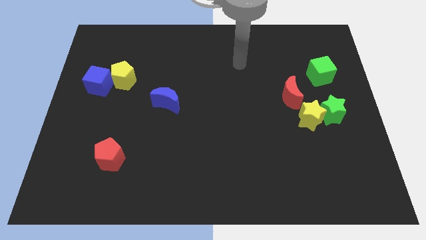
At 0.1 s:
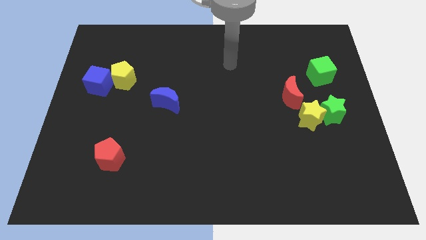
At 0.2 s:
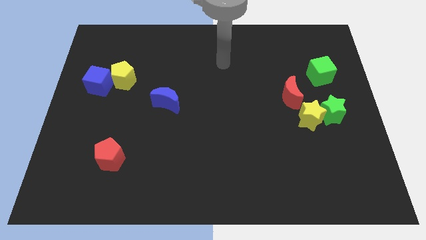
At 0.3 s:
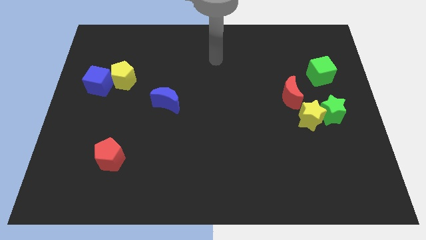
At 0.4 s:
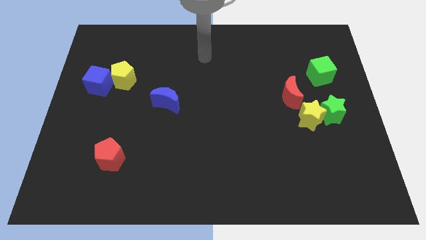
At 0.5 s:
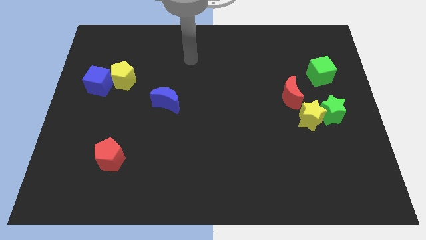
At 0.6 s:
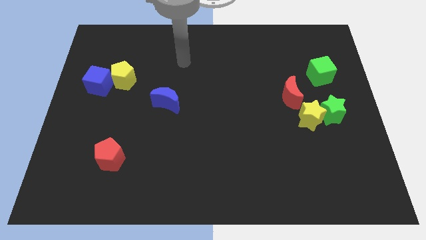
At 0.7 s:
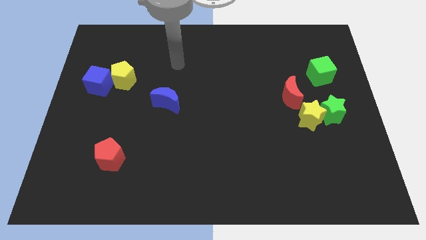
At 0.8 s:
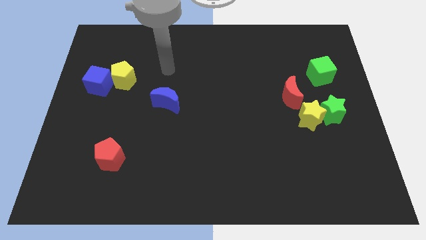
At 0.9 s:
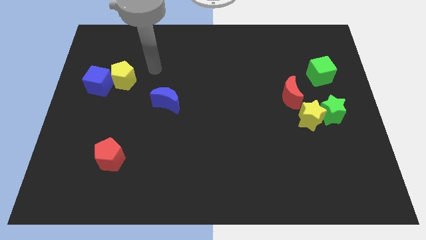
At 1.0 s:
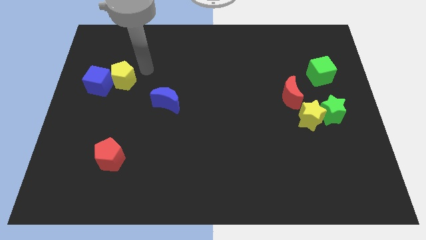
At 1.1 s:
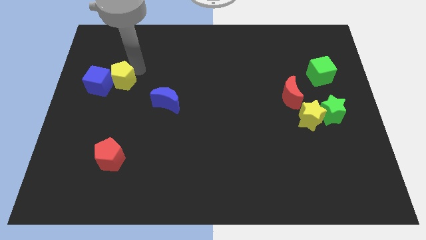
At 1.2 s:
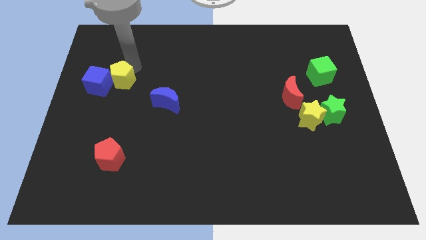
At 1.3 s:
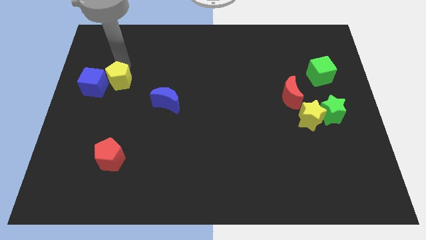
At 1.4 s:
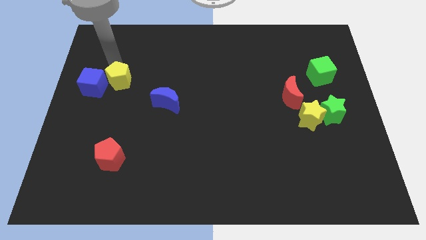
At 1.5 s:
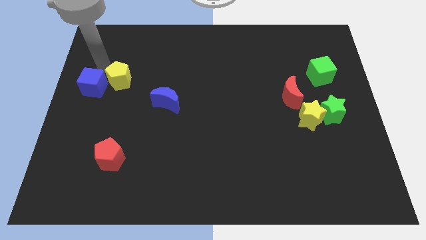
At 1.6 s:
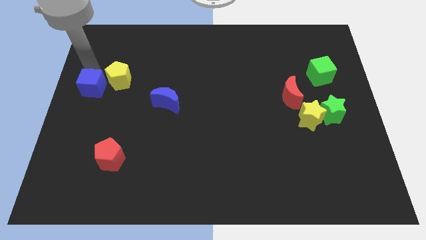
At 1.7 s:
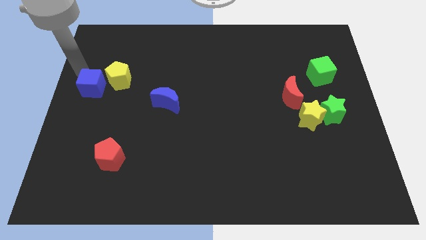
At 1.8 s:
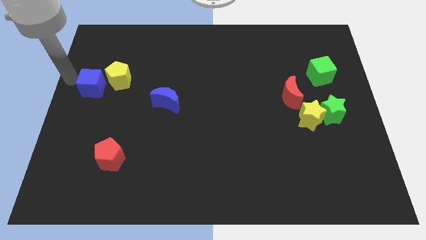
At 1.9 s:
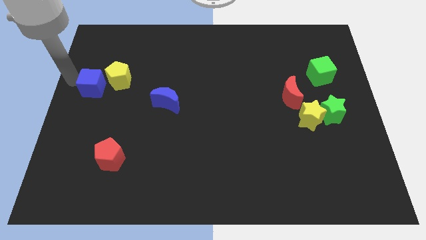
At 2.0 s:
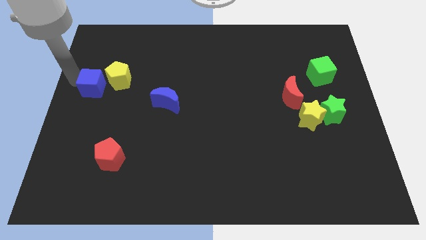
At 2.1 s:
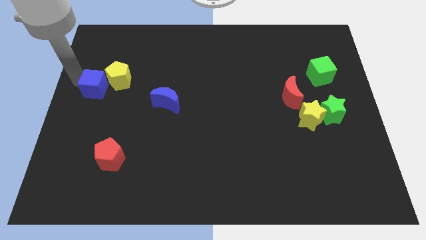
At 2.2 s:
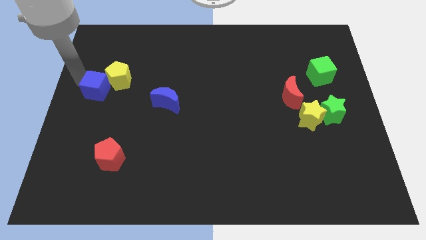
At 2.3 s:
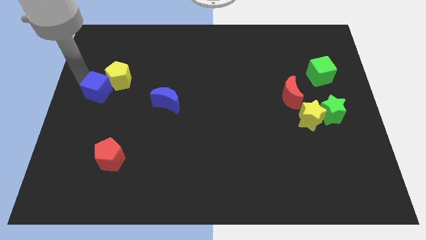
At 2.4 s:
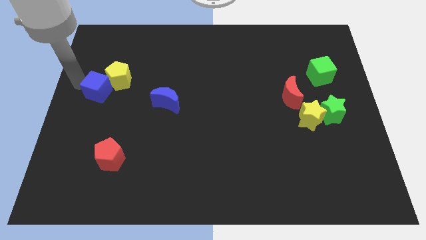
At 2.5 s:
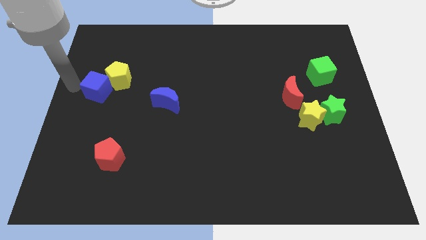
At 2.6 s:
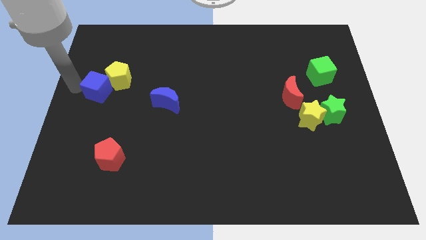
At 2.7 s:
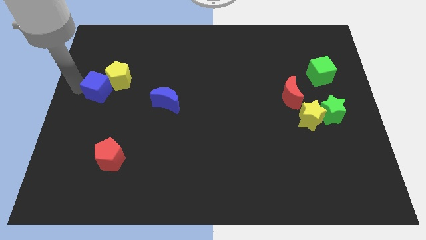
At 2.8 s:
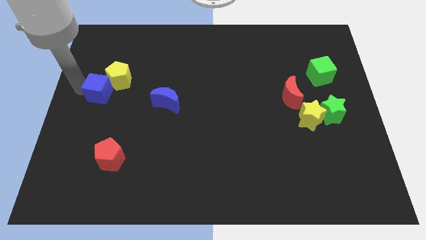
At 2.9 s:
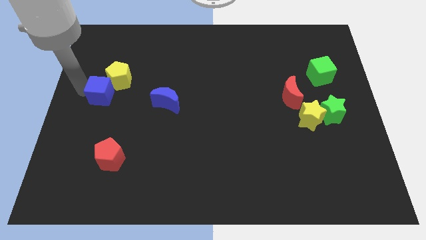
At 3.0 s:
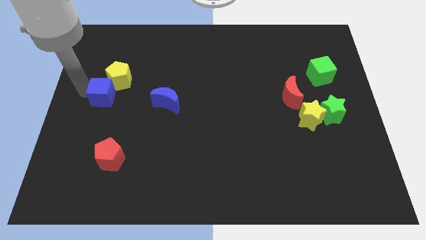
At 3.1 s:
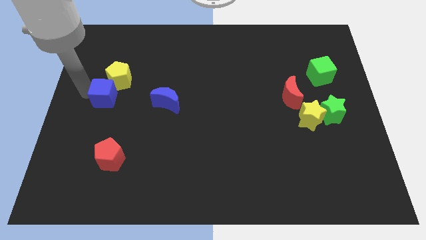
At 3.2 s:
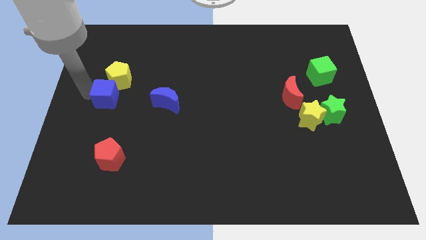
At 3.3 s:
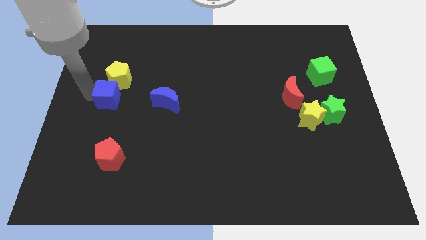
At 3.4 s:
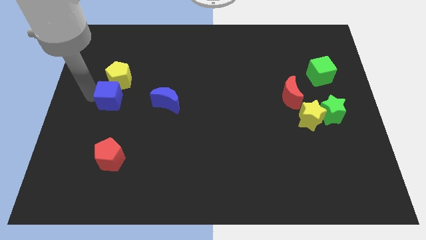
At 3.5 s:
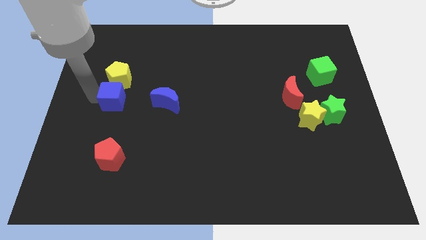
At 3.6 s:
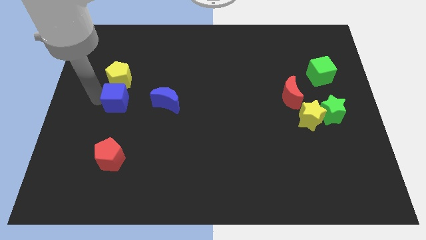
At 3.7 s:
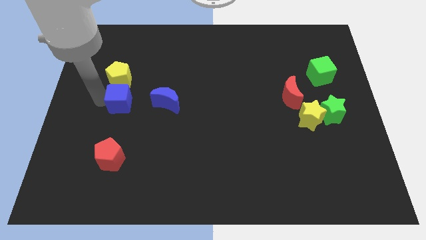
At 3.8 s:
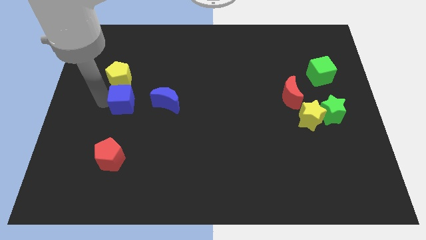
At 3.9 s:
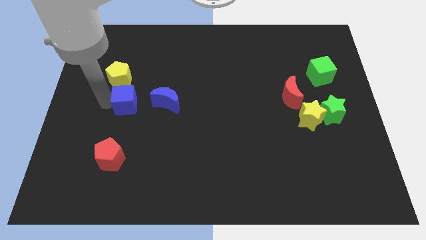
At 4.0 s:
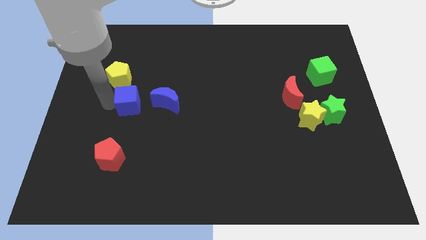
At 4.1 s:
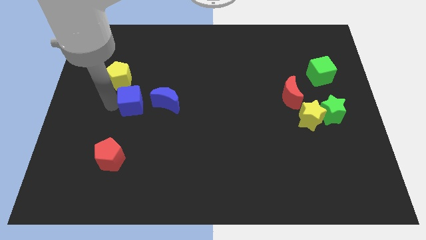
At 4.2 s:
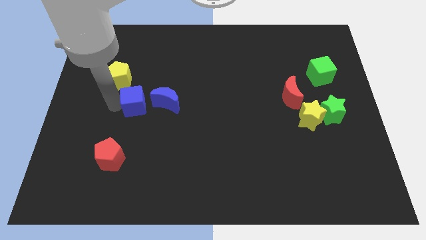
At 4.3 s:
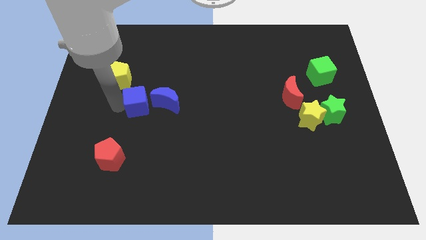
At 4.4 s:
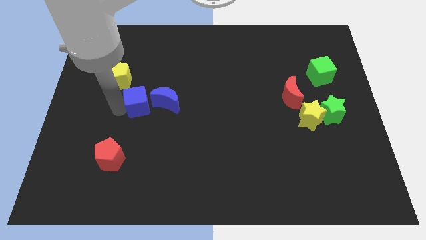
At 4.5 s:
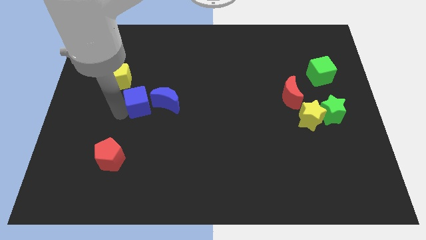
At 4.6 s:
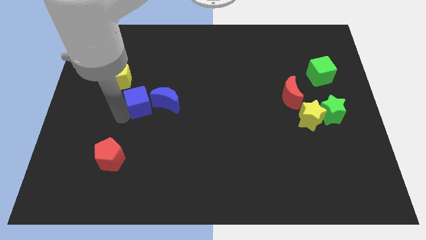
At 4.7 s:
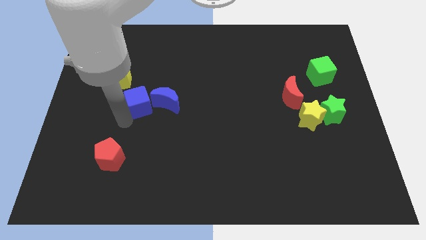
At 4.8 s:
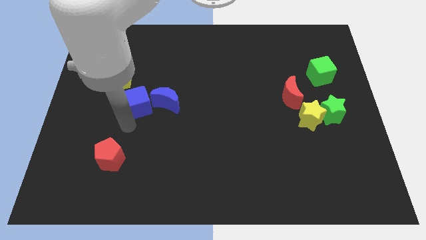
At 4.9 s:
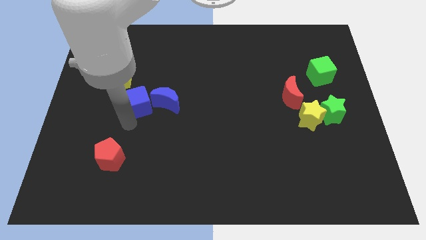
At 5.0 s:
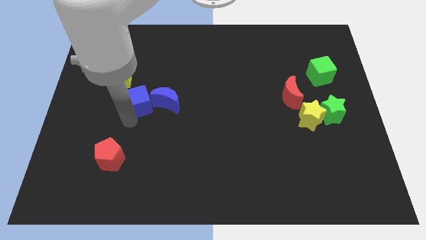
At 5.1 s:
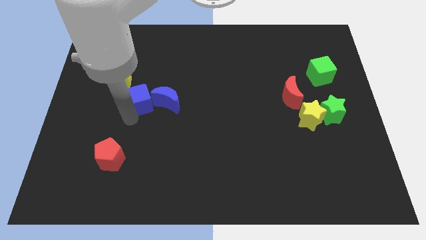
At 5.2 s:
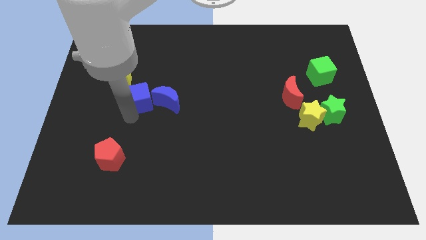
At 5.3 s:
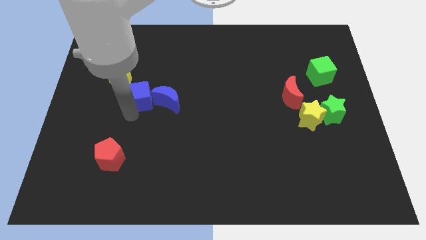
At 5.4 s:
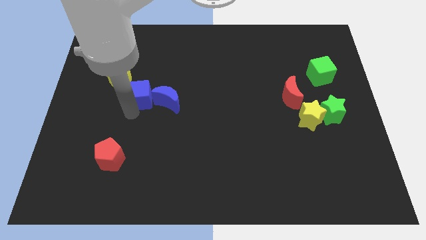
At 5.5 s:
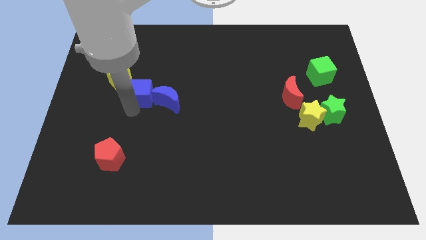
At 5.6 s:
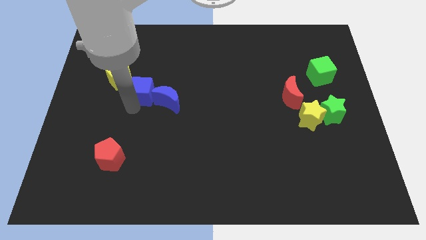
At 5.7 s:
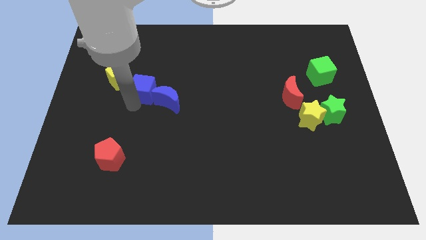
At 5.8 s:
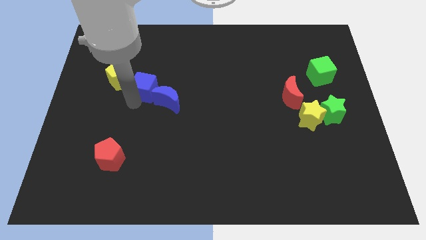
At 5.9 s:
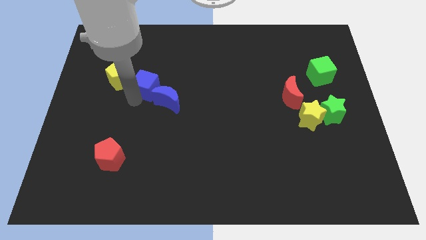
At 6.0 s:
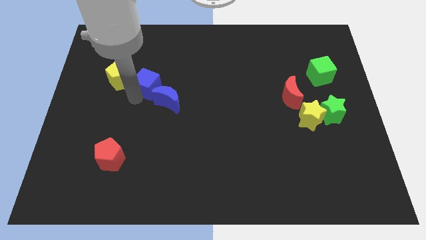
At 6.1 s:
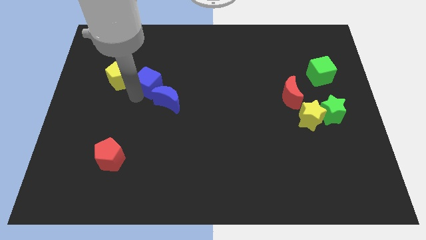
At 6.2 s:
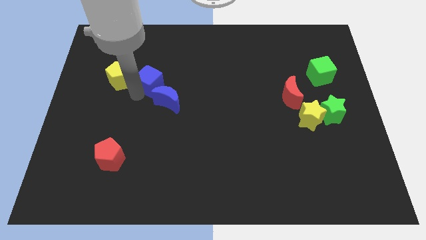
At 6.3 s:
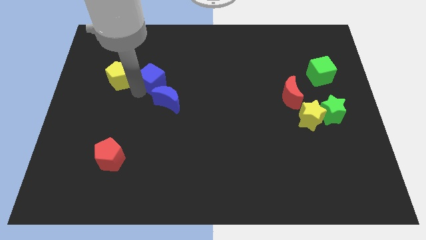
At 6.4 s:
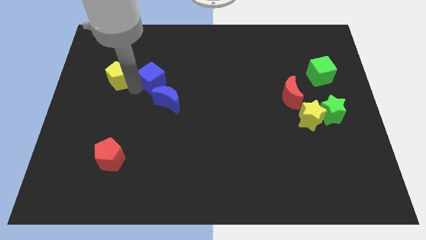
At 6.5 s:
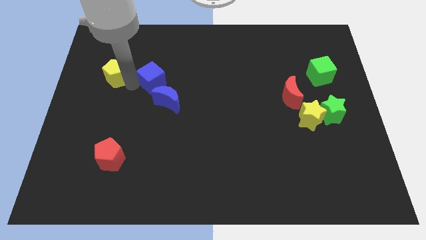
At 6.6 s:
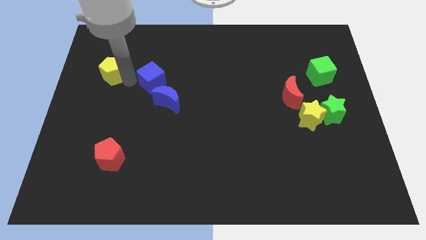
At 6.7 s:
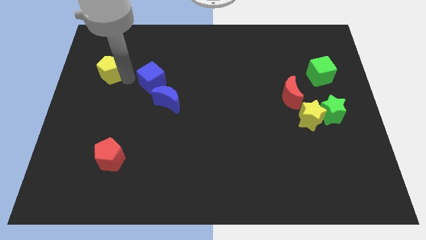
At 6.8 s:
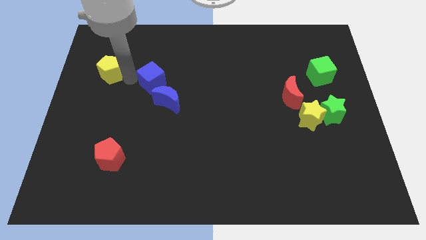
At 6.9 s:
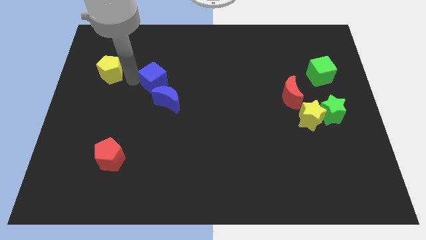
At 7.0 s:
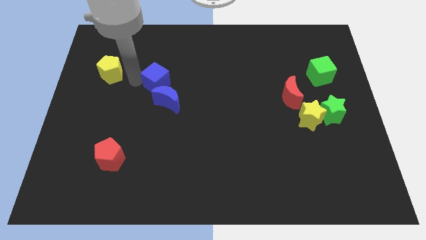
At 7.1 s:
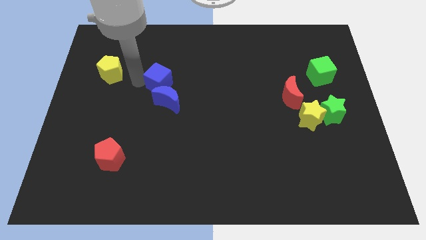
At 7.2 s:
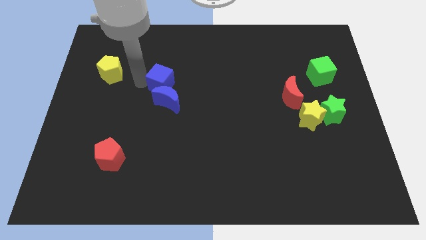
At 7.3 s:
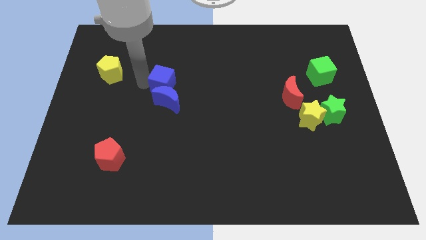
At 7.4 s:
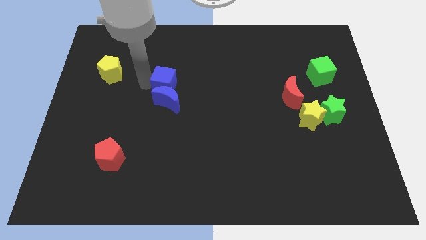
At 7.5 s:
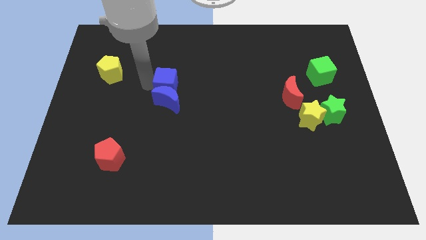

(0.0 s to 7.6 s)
put the blue cube to the center
